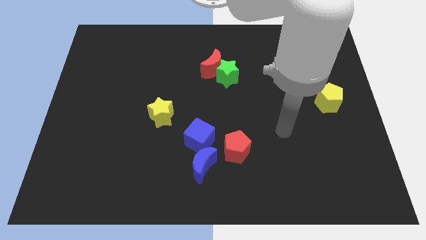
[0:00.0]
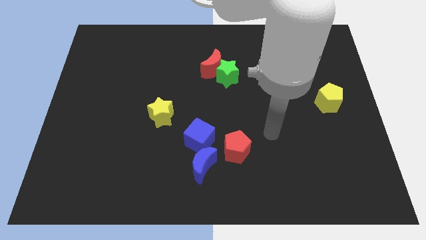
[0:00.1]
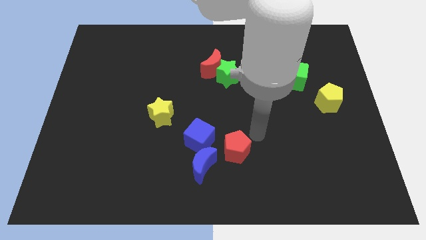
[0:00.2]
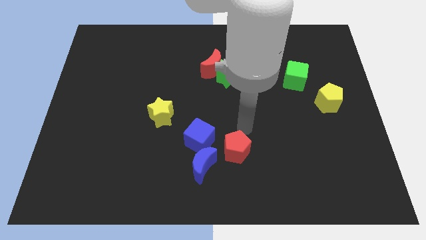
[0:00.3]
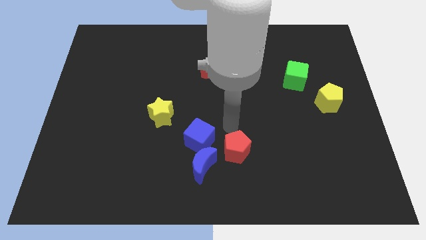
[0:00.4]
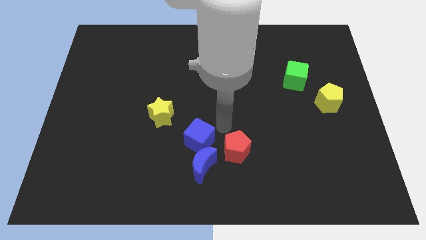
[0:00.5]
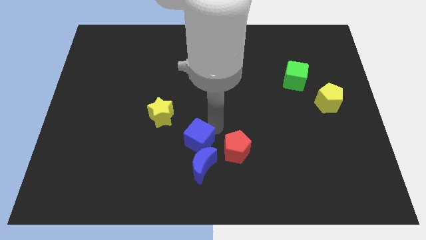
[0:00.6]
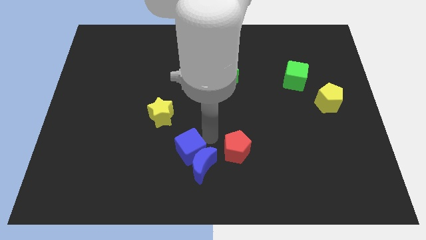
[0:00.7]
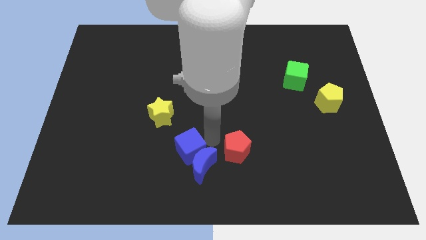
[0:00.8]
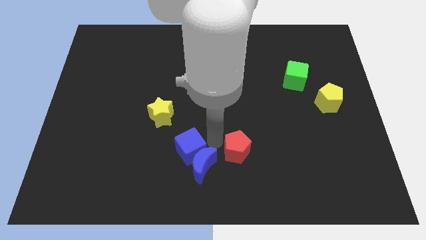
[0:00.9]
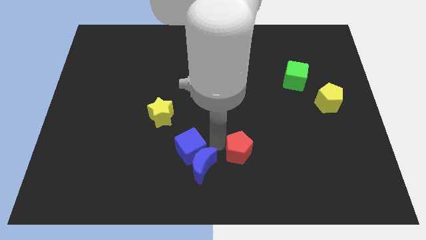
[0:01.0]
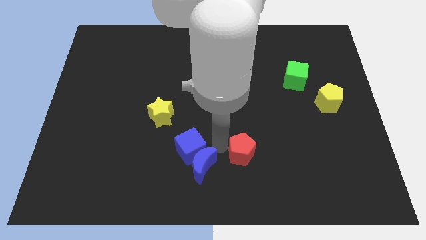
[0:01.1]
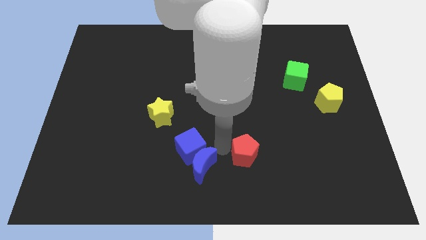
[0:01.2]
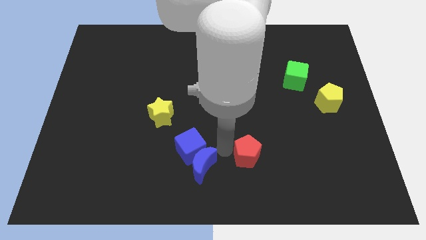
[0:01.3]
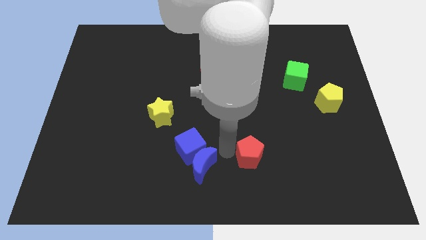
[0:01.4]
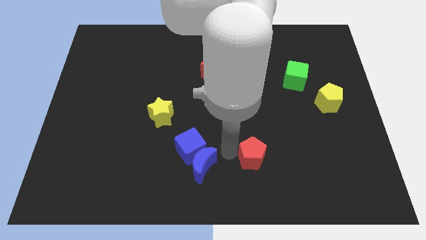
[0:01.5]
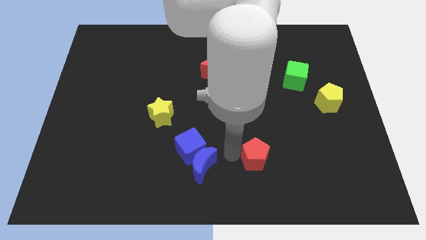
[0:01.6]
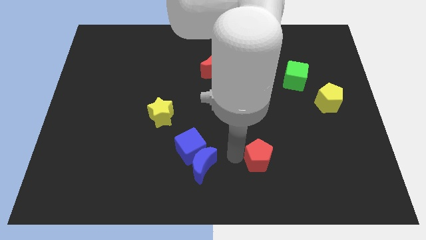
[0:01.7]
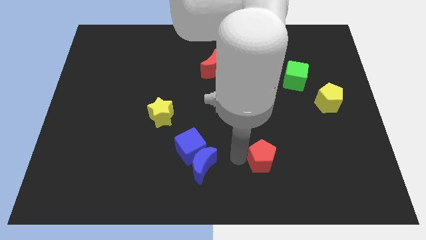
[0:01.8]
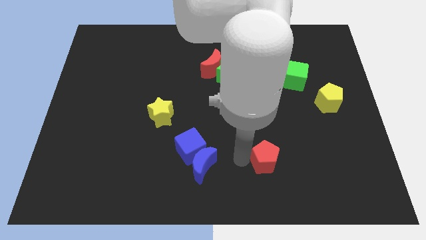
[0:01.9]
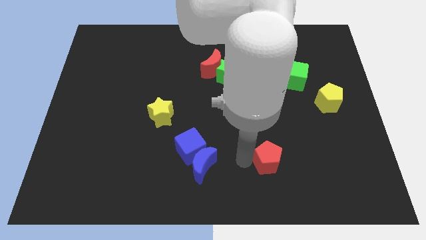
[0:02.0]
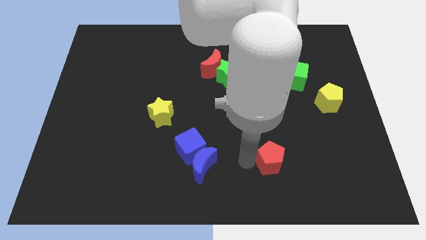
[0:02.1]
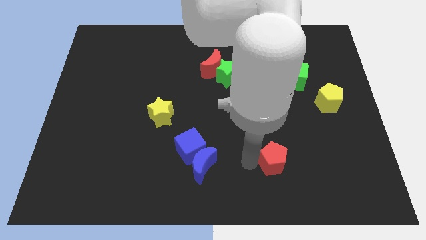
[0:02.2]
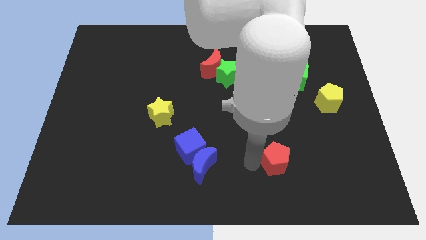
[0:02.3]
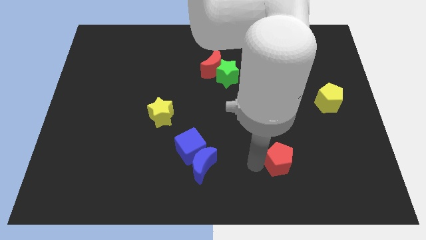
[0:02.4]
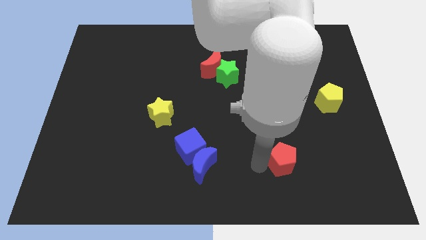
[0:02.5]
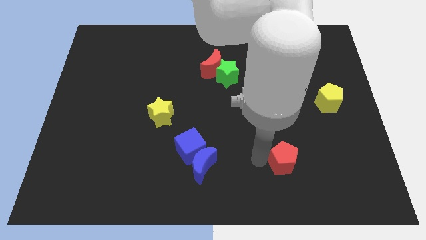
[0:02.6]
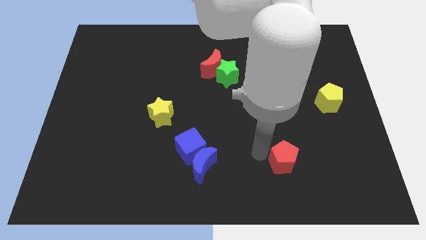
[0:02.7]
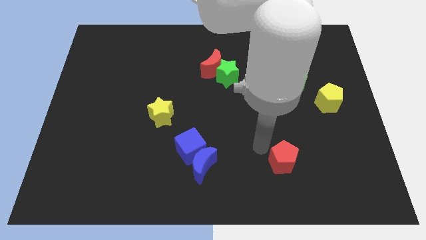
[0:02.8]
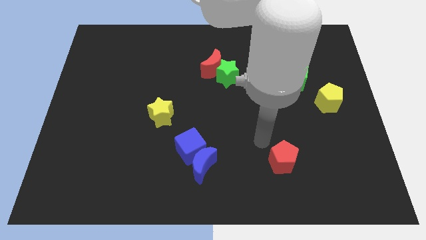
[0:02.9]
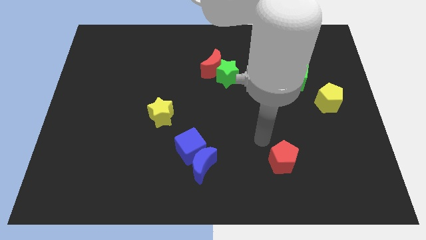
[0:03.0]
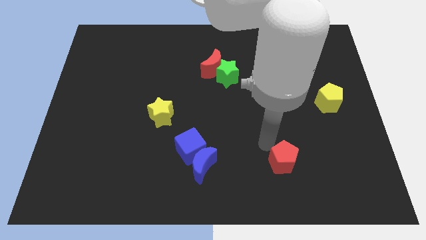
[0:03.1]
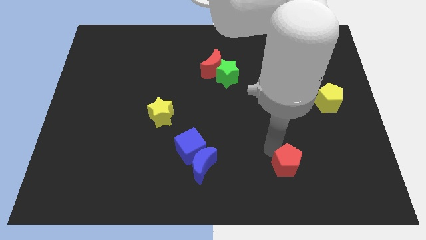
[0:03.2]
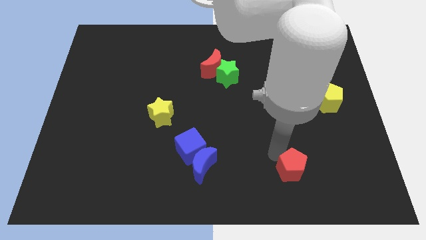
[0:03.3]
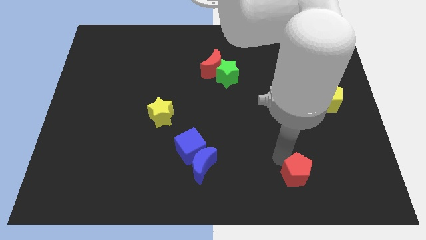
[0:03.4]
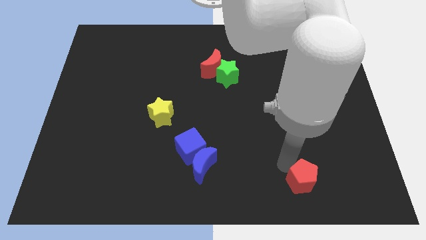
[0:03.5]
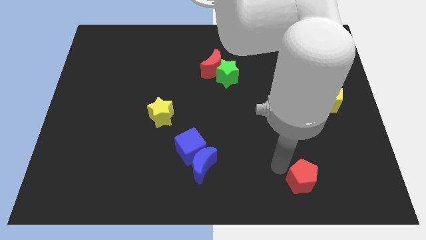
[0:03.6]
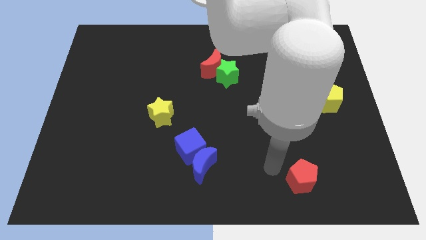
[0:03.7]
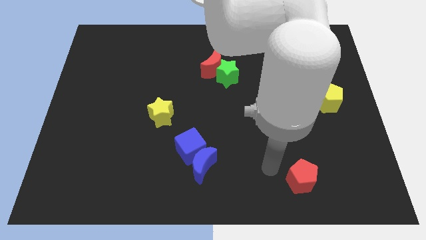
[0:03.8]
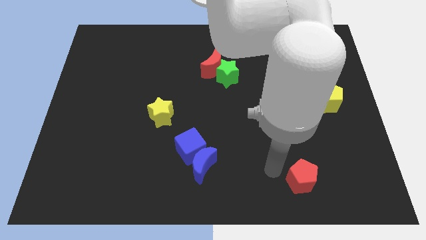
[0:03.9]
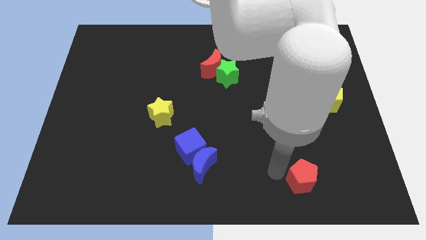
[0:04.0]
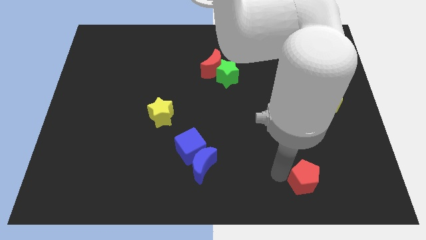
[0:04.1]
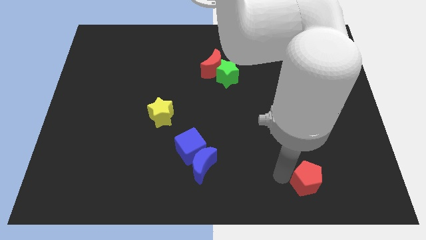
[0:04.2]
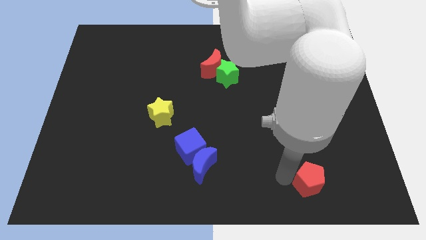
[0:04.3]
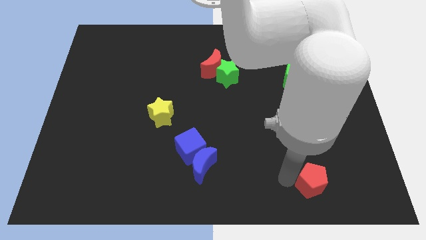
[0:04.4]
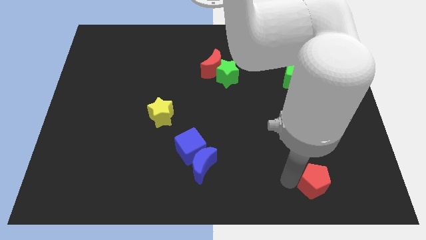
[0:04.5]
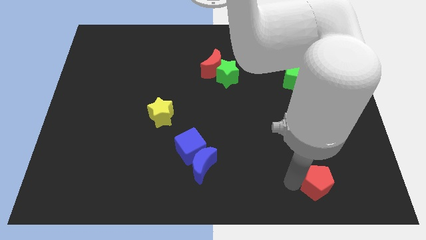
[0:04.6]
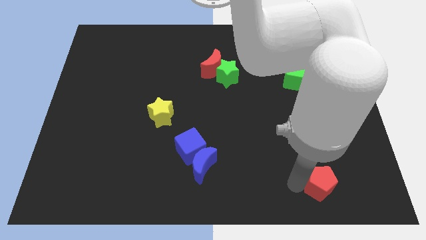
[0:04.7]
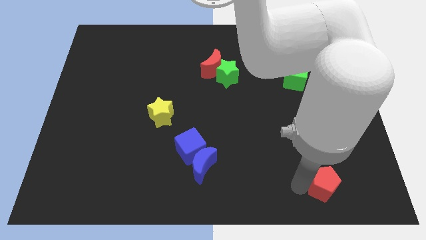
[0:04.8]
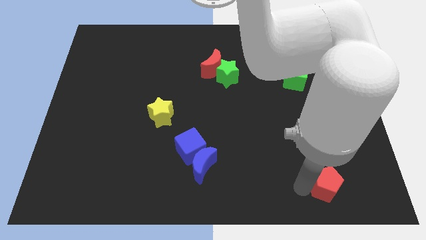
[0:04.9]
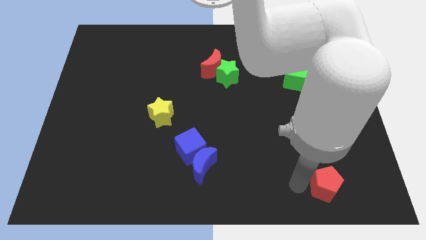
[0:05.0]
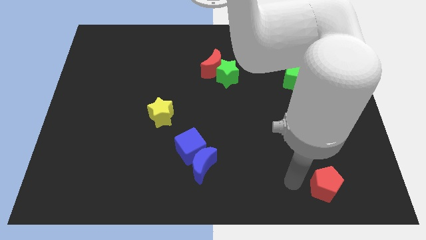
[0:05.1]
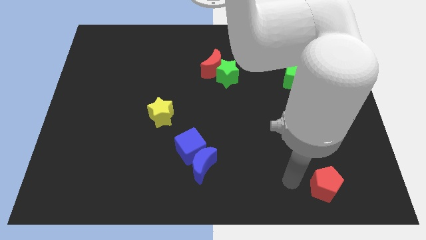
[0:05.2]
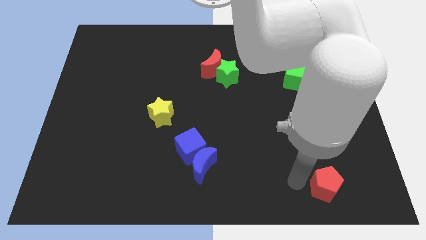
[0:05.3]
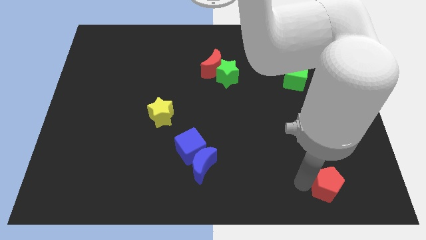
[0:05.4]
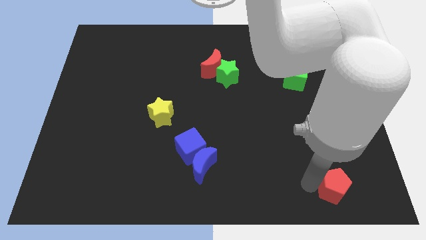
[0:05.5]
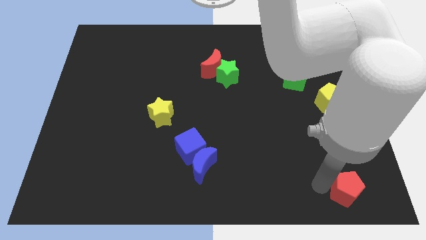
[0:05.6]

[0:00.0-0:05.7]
put the red pentagon to the bottom right
